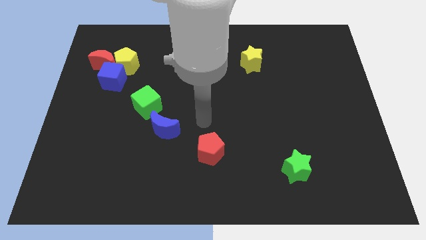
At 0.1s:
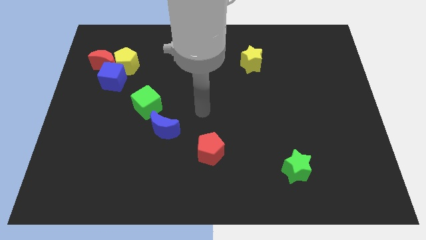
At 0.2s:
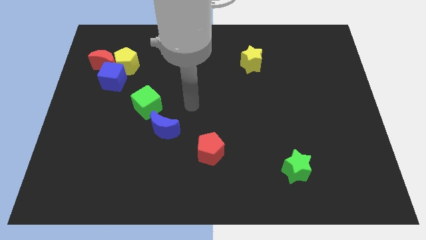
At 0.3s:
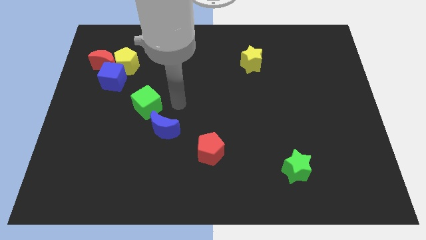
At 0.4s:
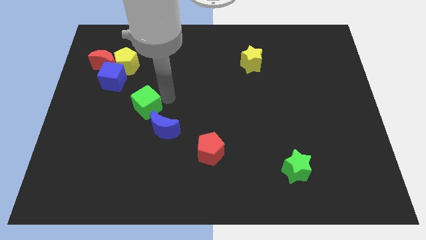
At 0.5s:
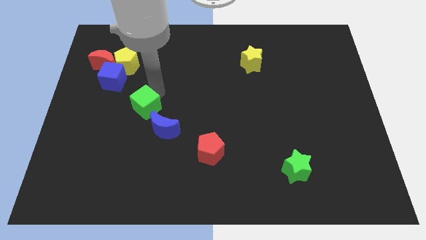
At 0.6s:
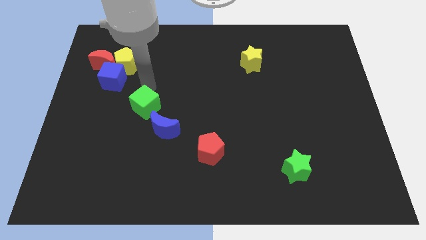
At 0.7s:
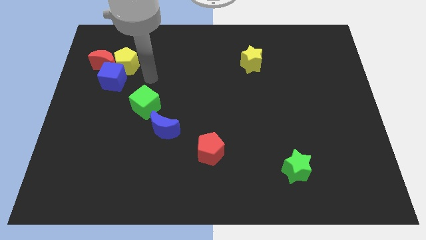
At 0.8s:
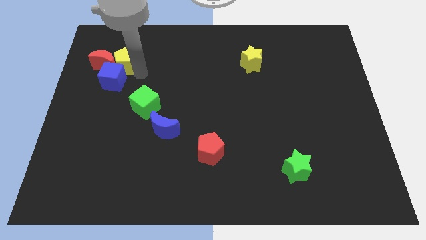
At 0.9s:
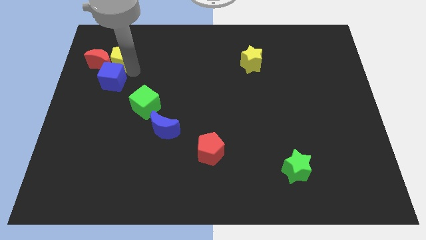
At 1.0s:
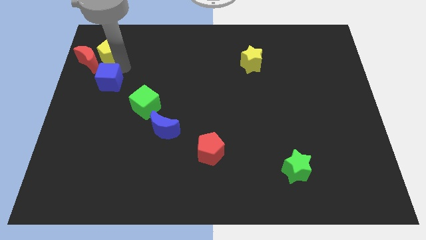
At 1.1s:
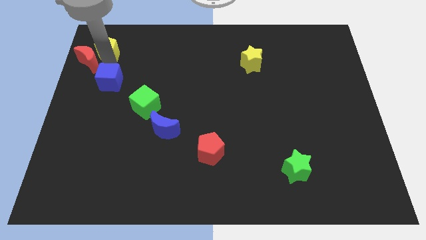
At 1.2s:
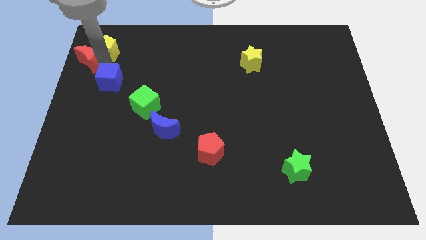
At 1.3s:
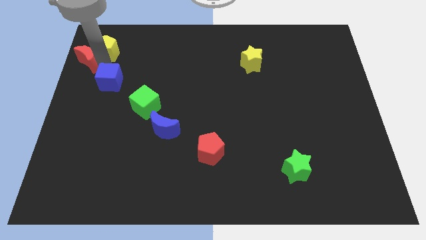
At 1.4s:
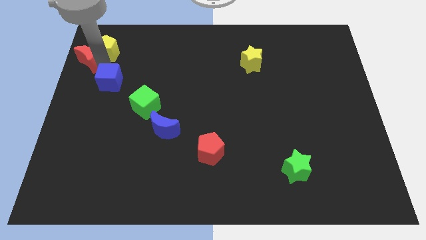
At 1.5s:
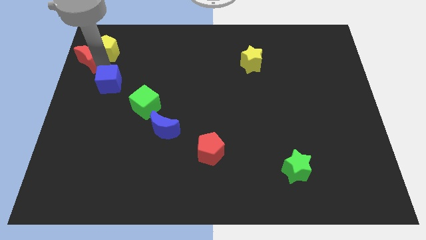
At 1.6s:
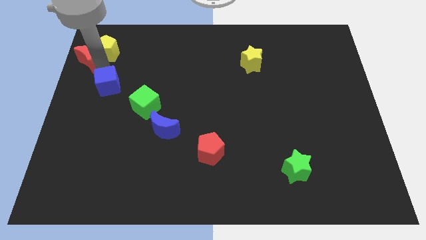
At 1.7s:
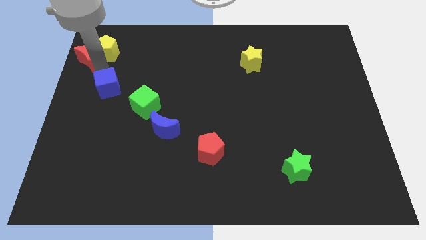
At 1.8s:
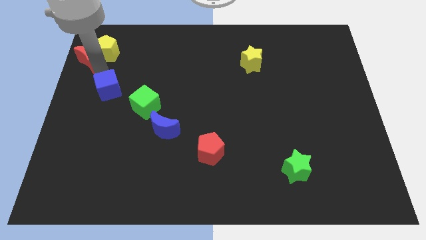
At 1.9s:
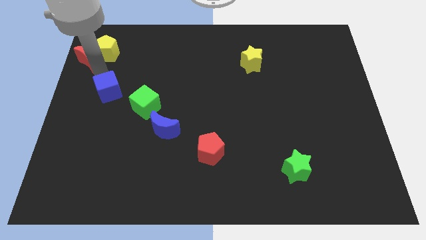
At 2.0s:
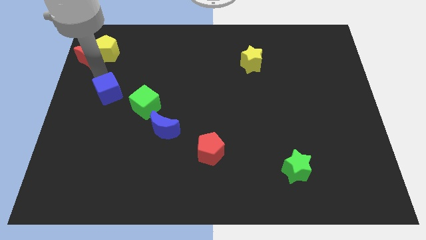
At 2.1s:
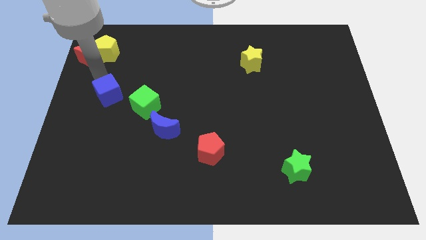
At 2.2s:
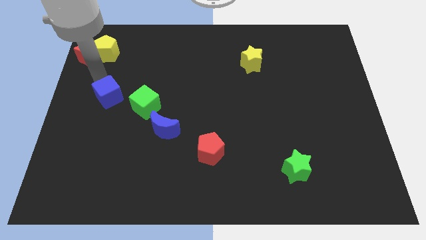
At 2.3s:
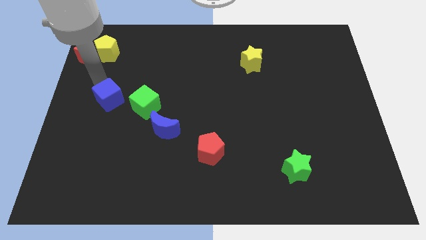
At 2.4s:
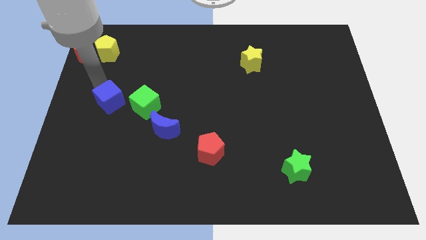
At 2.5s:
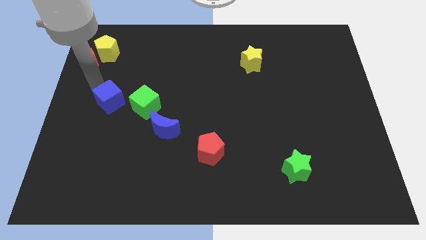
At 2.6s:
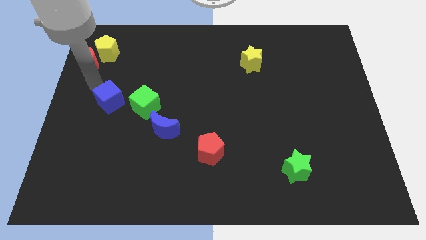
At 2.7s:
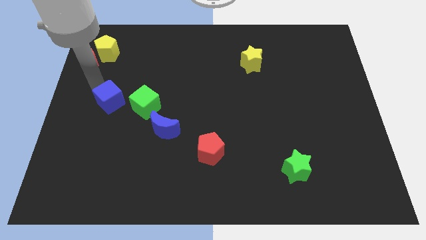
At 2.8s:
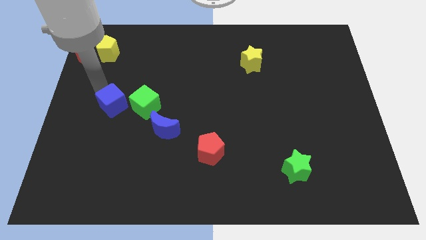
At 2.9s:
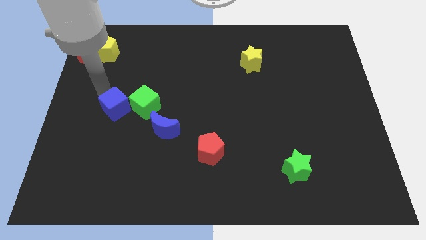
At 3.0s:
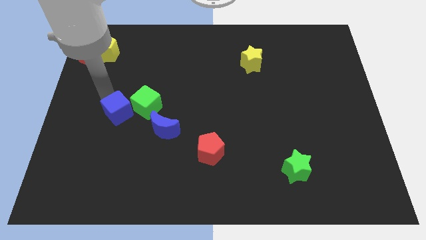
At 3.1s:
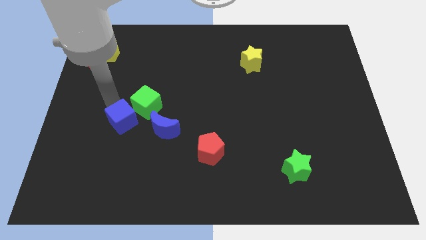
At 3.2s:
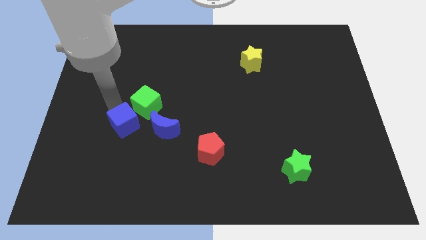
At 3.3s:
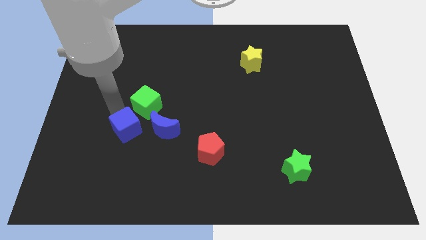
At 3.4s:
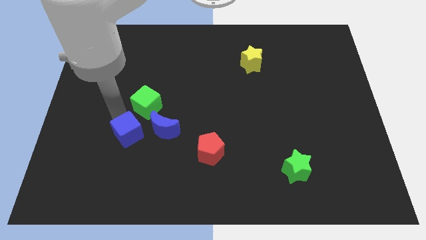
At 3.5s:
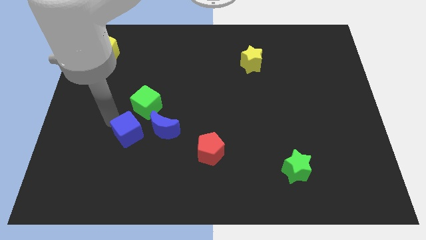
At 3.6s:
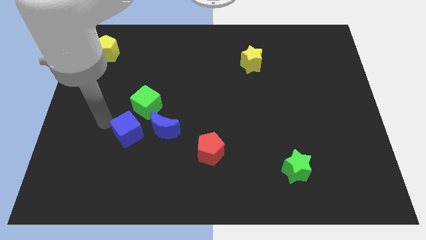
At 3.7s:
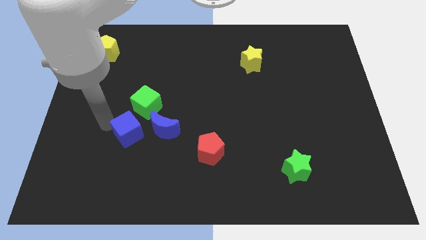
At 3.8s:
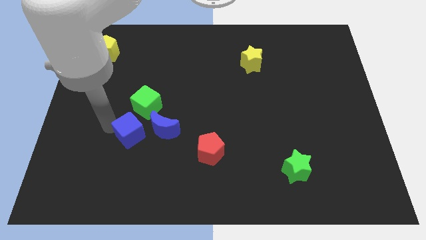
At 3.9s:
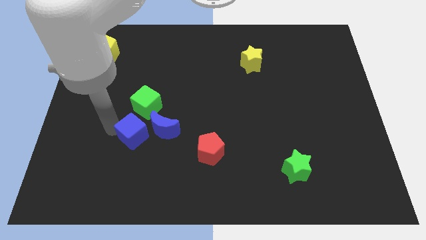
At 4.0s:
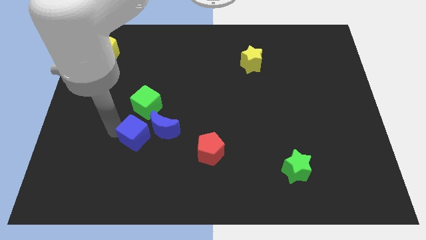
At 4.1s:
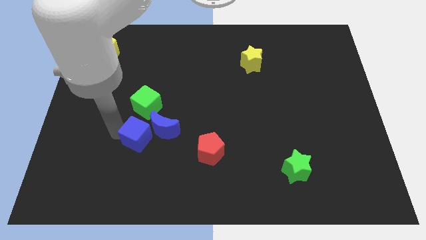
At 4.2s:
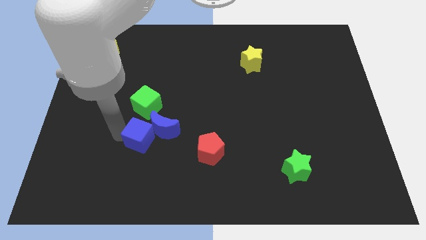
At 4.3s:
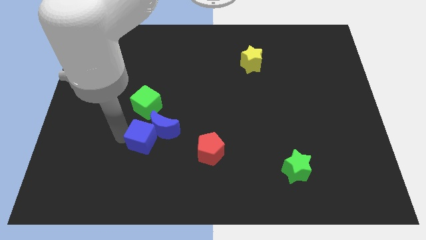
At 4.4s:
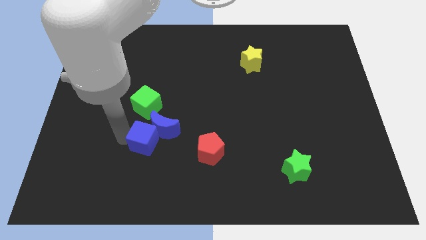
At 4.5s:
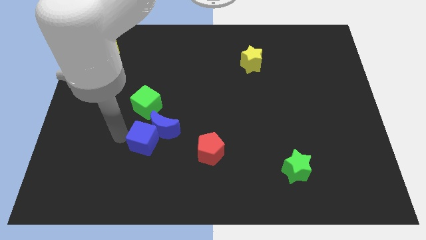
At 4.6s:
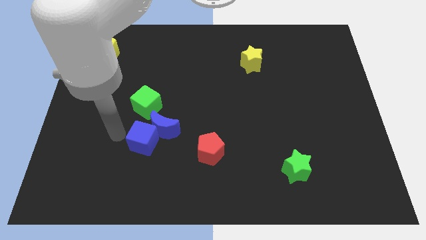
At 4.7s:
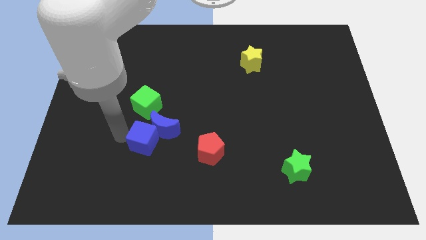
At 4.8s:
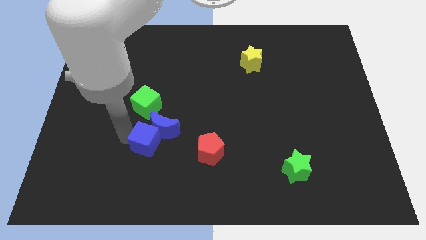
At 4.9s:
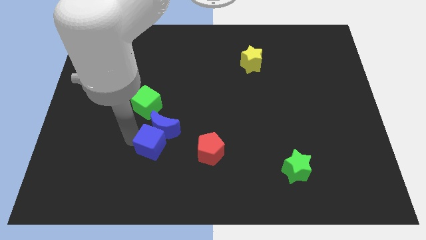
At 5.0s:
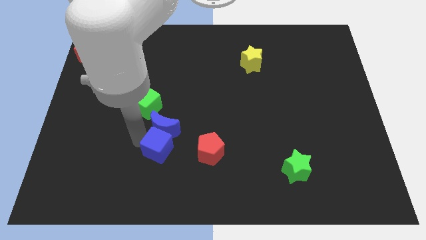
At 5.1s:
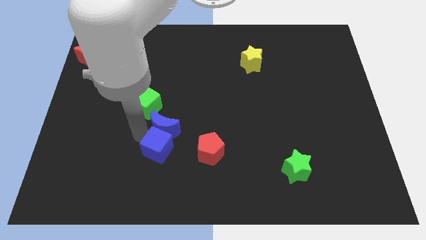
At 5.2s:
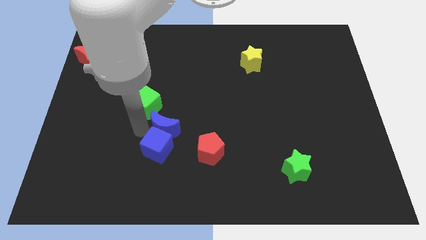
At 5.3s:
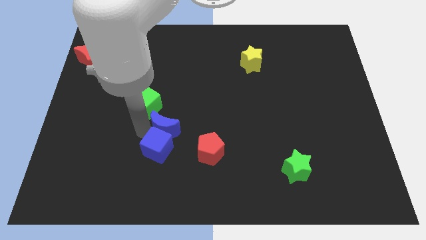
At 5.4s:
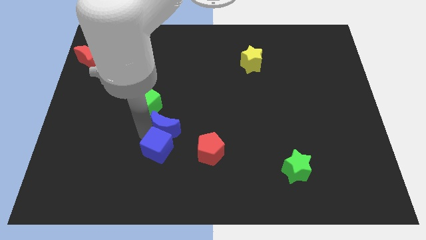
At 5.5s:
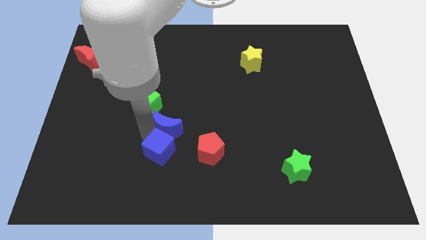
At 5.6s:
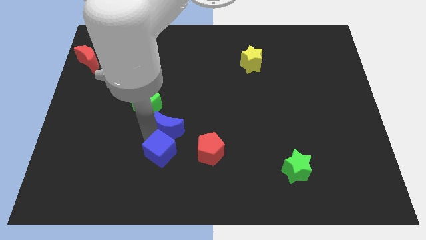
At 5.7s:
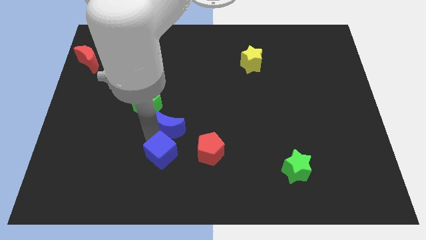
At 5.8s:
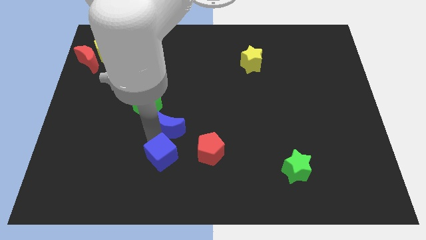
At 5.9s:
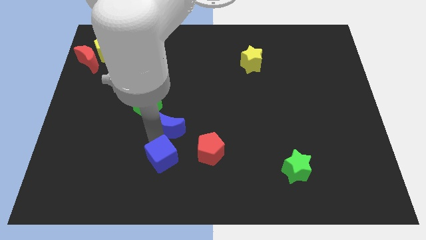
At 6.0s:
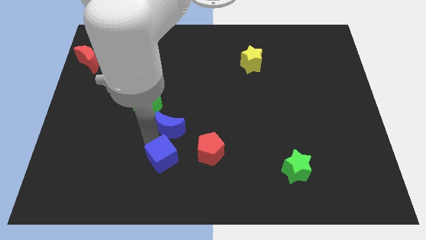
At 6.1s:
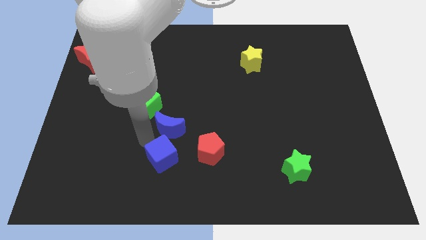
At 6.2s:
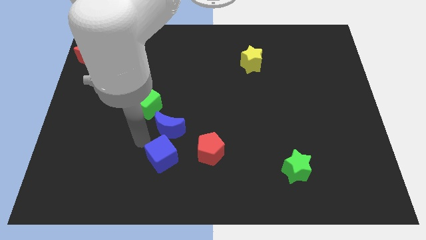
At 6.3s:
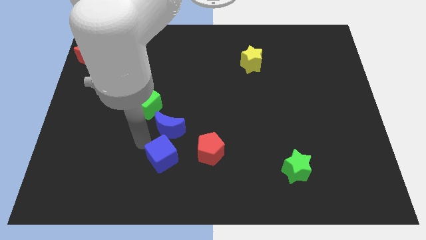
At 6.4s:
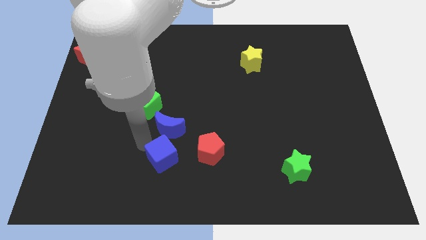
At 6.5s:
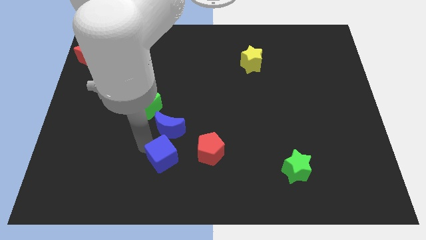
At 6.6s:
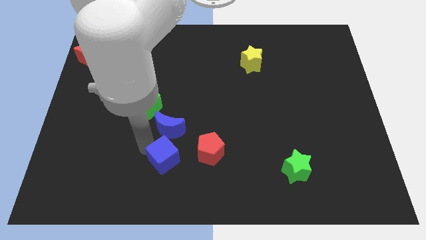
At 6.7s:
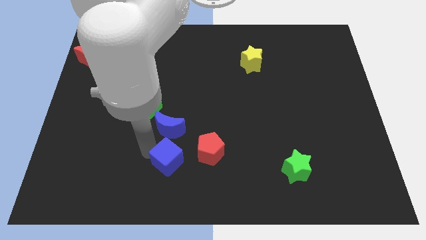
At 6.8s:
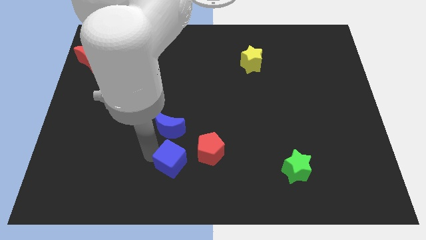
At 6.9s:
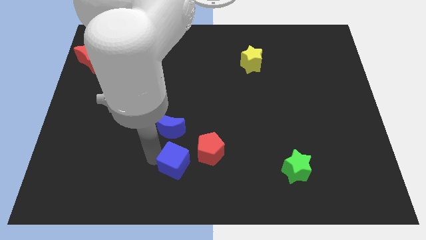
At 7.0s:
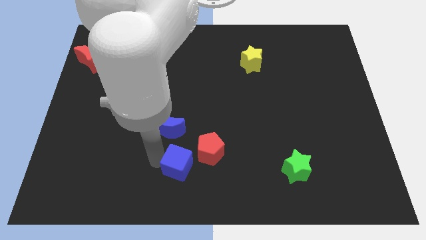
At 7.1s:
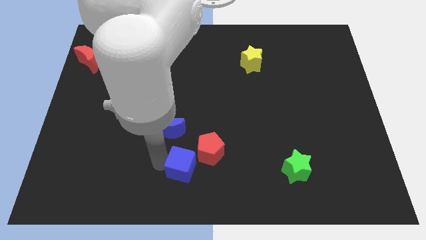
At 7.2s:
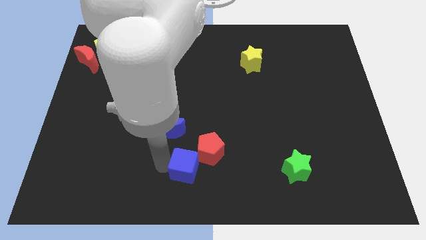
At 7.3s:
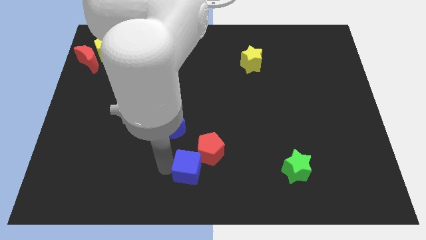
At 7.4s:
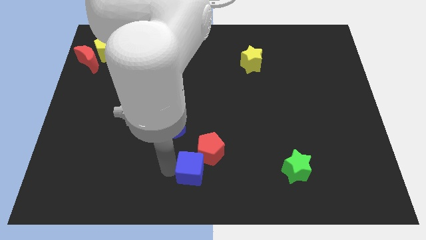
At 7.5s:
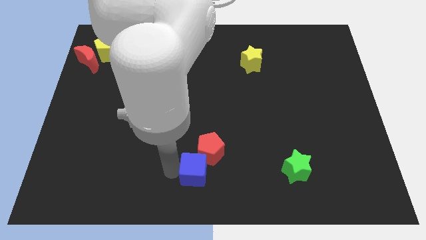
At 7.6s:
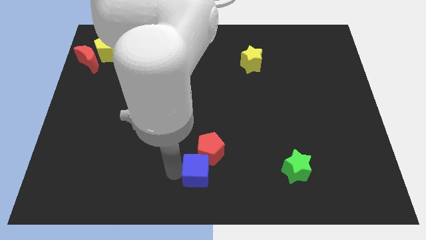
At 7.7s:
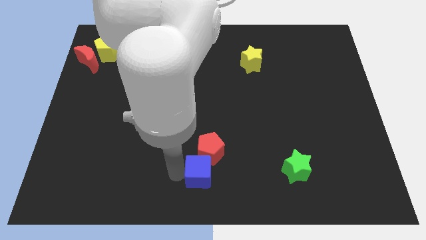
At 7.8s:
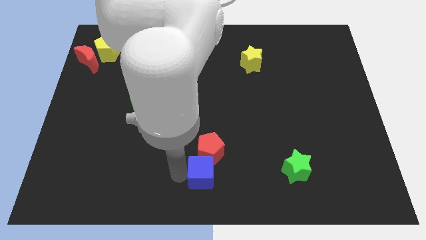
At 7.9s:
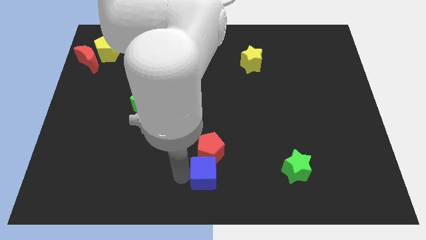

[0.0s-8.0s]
slide the blue cube to the bottom right side of the red pentagon
